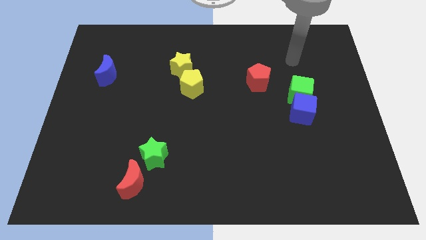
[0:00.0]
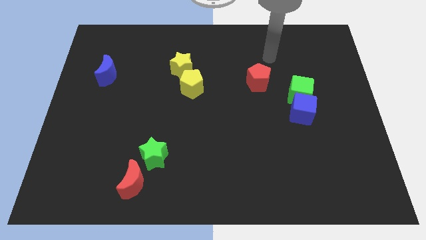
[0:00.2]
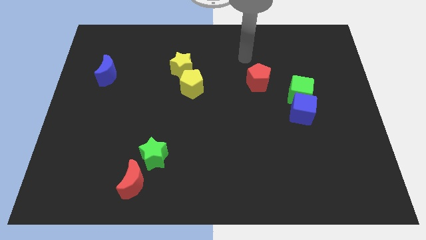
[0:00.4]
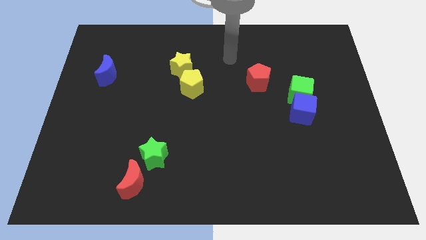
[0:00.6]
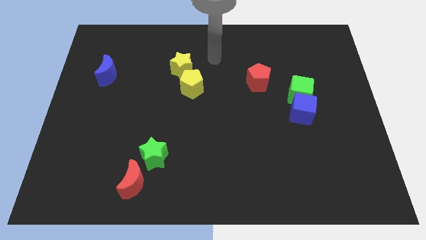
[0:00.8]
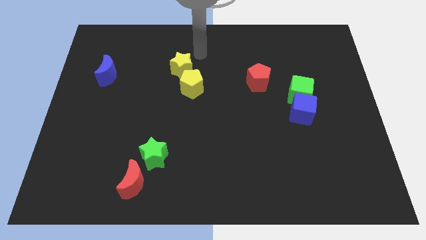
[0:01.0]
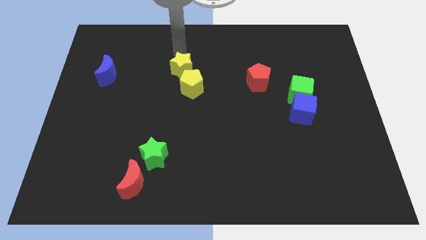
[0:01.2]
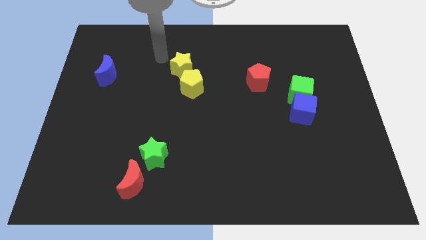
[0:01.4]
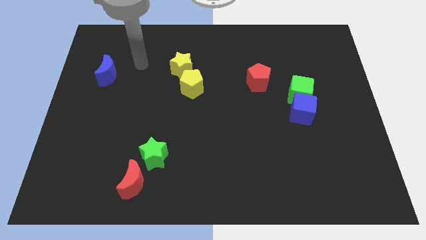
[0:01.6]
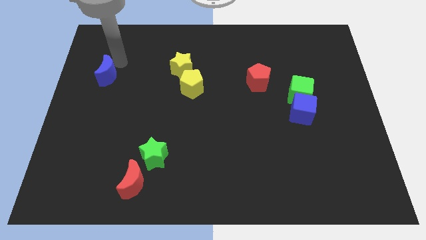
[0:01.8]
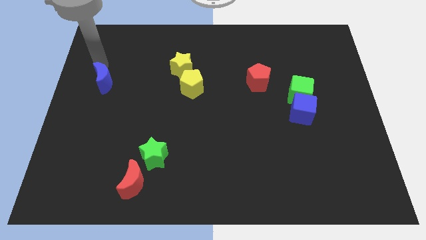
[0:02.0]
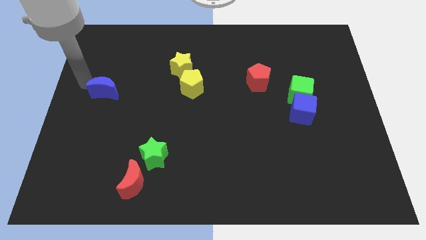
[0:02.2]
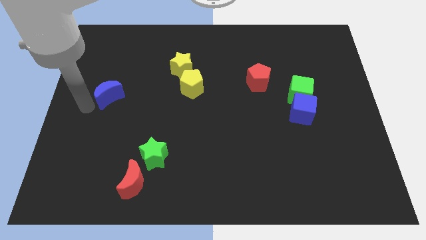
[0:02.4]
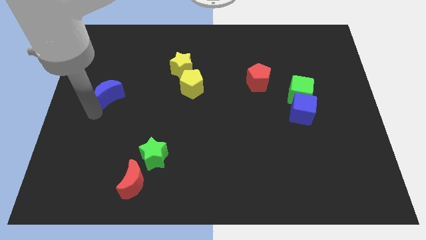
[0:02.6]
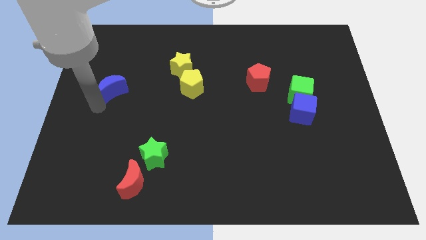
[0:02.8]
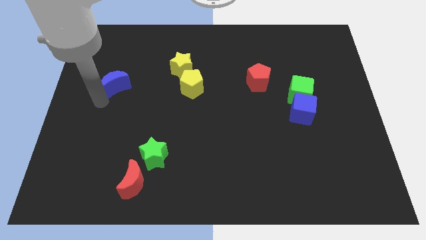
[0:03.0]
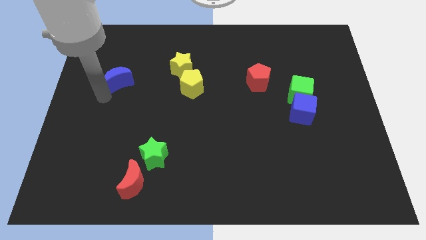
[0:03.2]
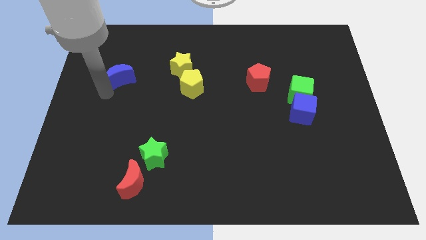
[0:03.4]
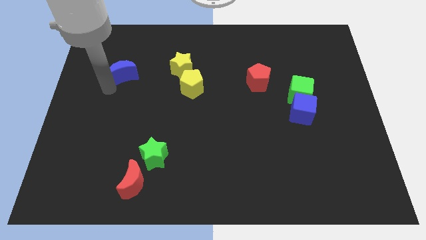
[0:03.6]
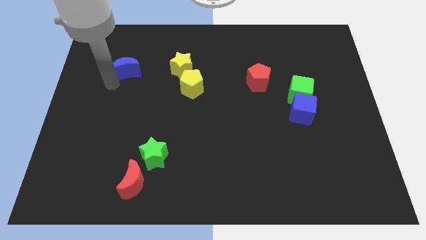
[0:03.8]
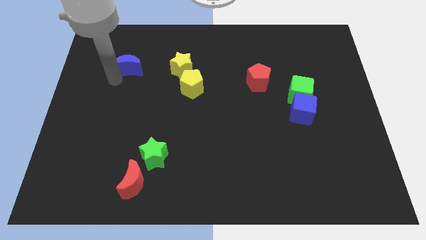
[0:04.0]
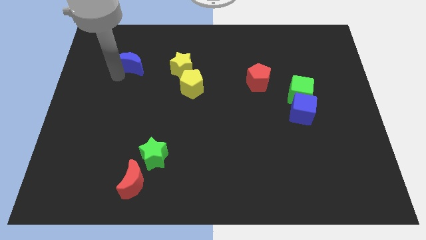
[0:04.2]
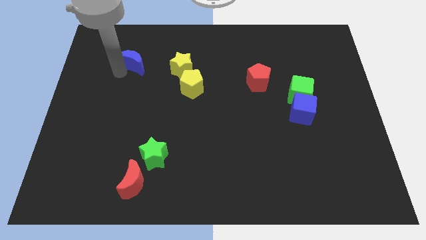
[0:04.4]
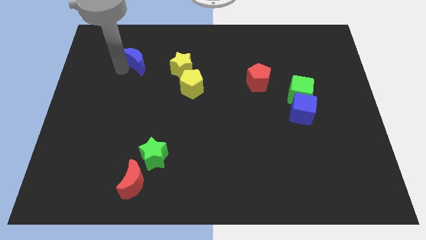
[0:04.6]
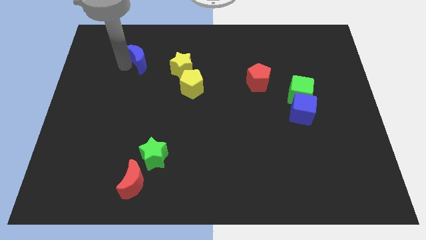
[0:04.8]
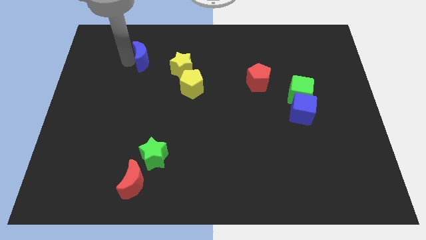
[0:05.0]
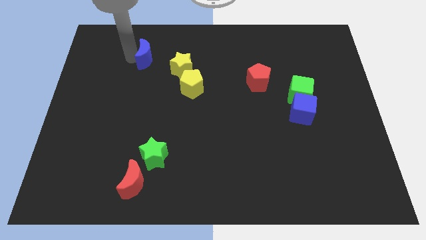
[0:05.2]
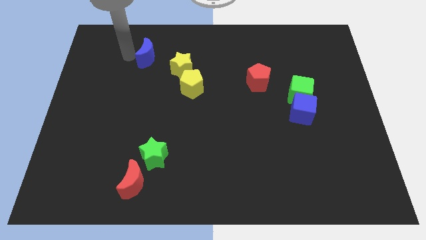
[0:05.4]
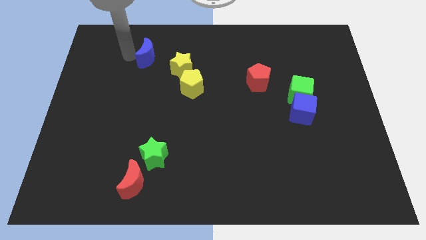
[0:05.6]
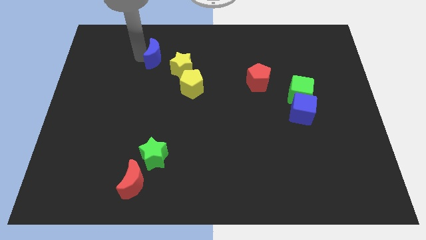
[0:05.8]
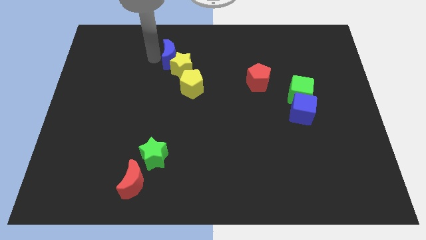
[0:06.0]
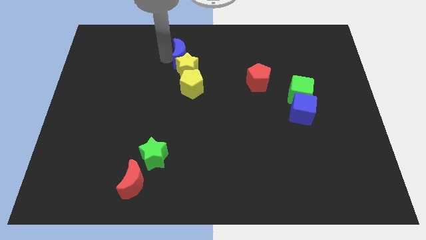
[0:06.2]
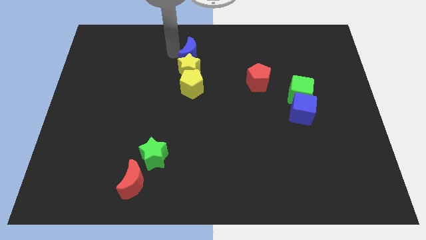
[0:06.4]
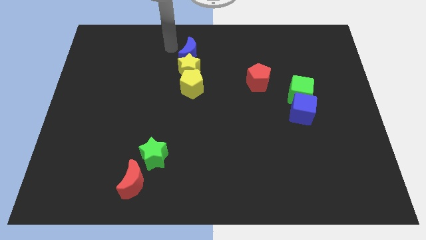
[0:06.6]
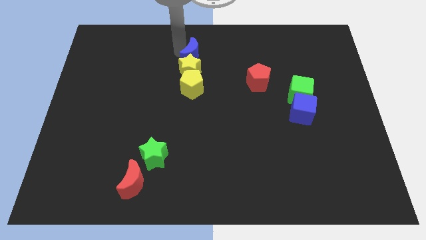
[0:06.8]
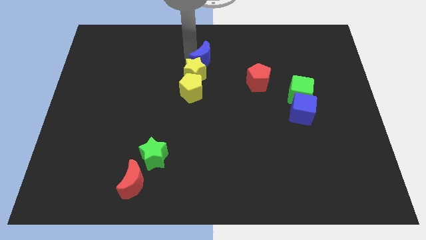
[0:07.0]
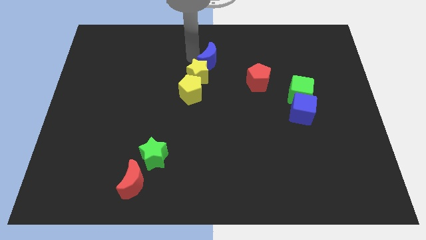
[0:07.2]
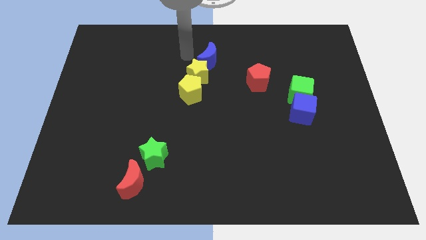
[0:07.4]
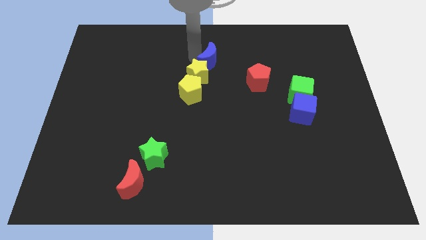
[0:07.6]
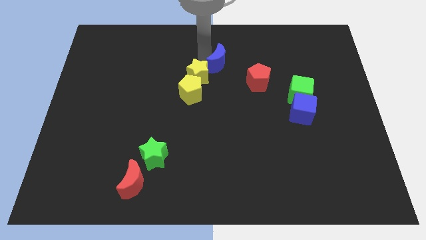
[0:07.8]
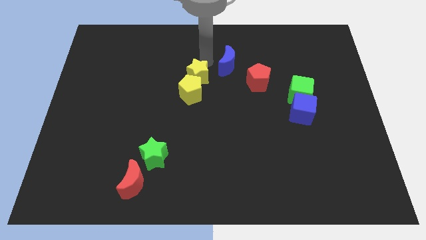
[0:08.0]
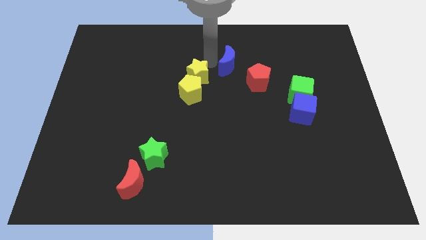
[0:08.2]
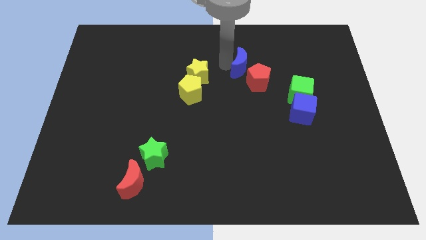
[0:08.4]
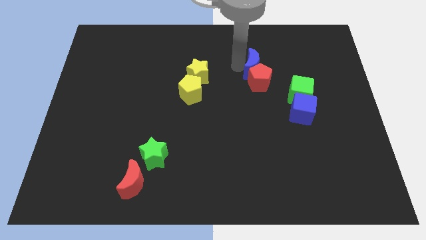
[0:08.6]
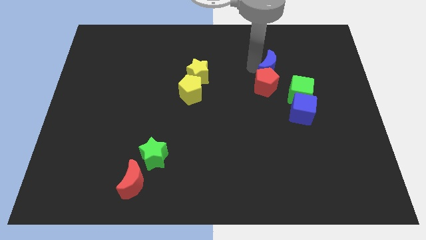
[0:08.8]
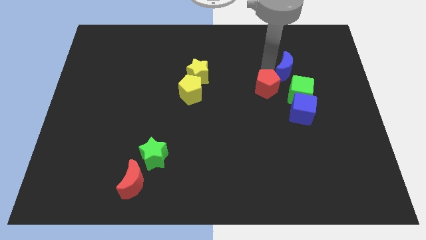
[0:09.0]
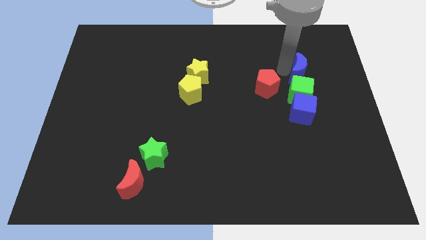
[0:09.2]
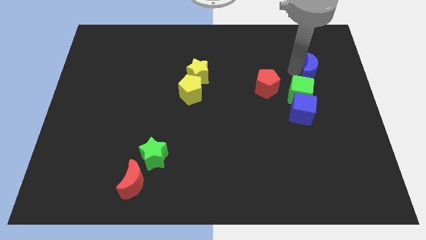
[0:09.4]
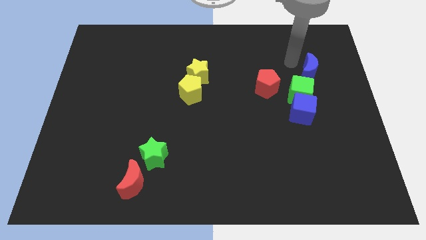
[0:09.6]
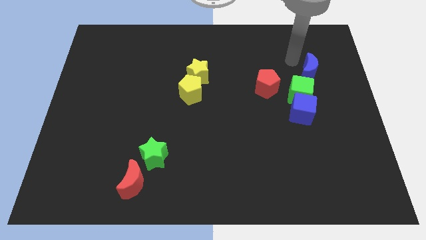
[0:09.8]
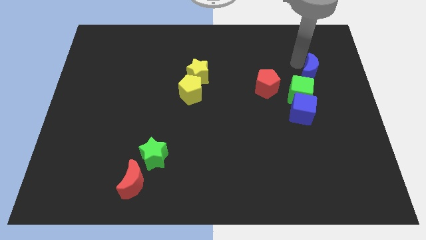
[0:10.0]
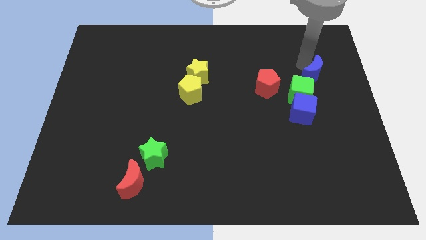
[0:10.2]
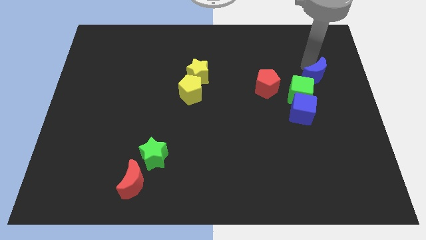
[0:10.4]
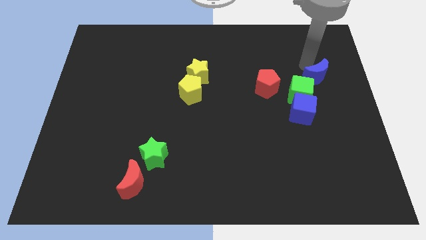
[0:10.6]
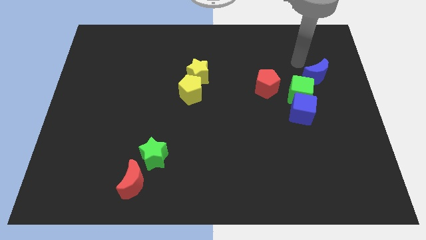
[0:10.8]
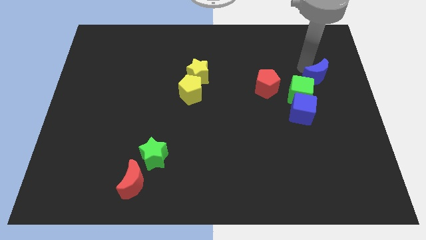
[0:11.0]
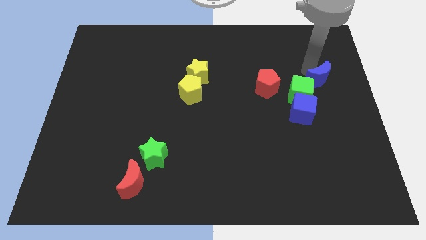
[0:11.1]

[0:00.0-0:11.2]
slide the blue moon to the right side of the board

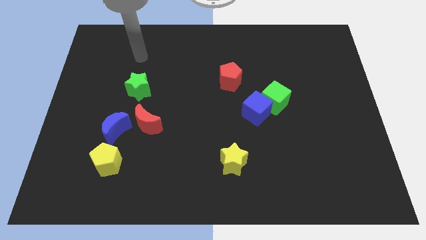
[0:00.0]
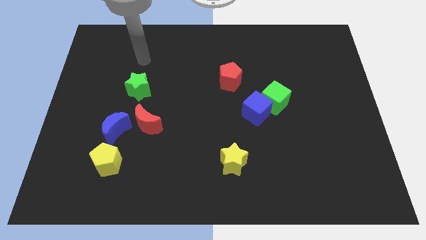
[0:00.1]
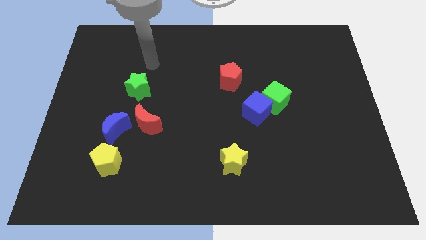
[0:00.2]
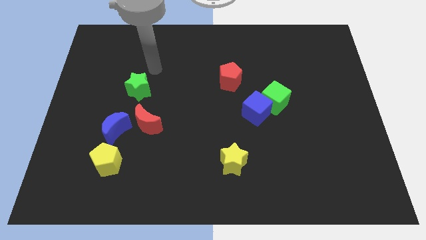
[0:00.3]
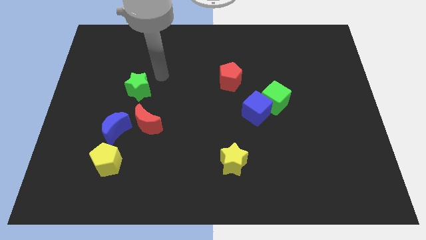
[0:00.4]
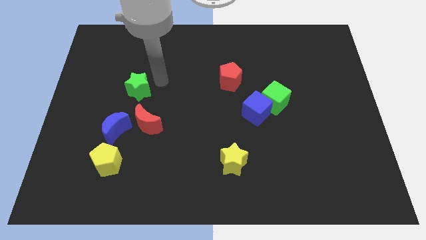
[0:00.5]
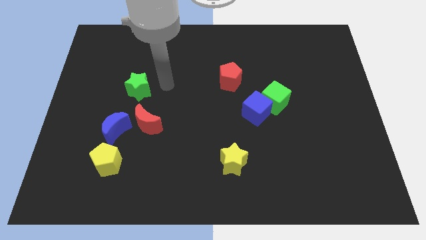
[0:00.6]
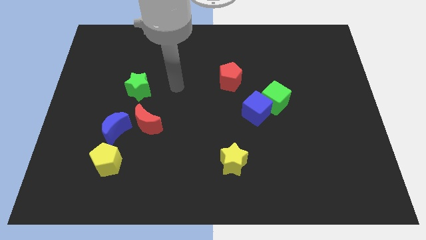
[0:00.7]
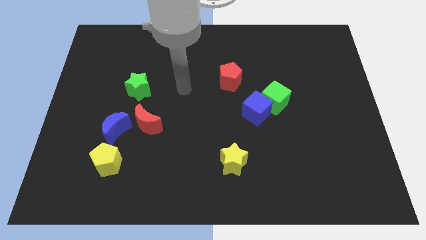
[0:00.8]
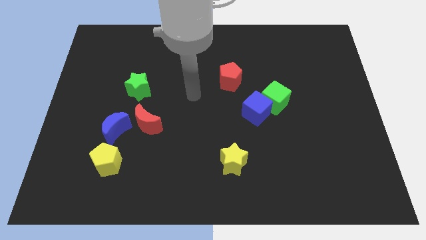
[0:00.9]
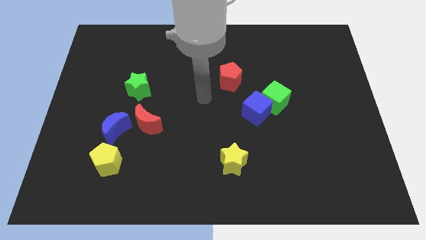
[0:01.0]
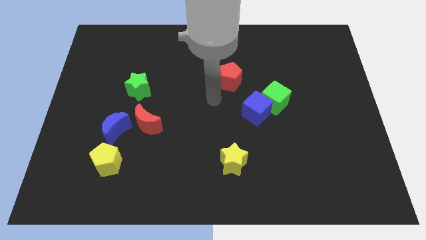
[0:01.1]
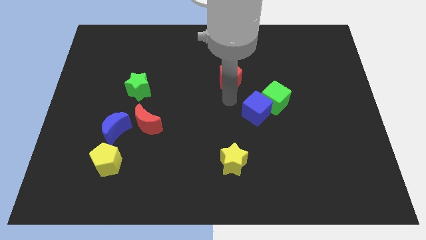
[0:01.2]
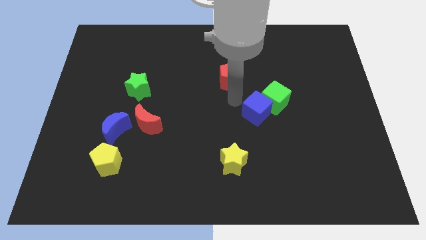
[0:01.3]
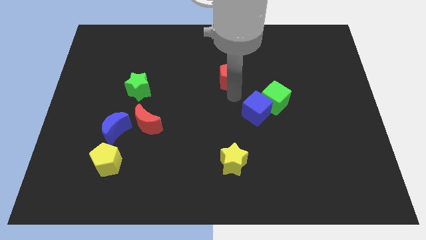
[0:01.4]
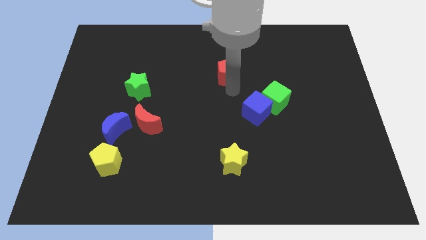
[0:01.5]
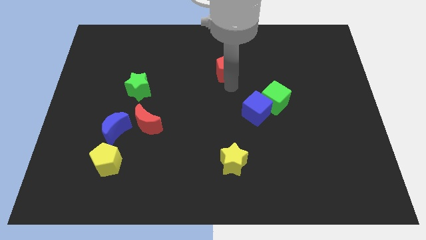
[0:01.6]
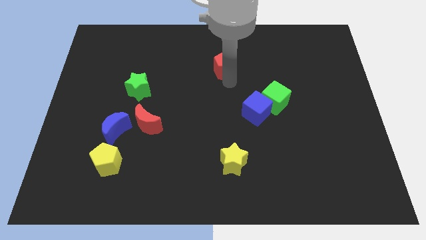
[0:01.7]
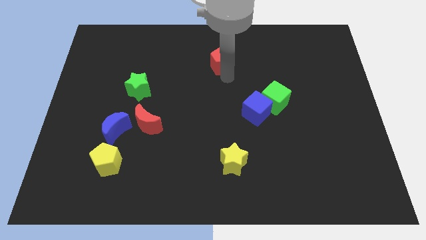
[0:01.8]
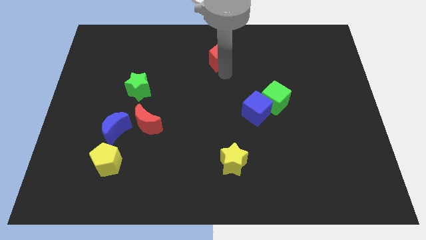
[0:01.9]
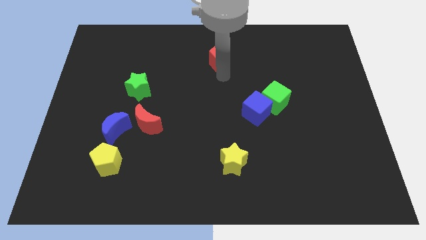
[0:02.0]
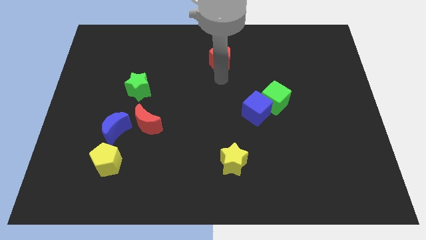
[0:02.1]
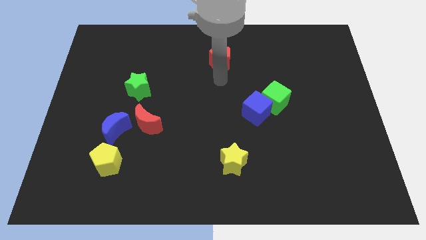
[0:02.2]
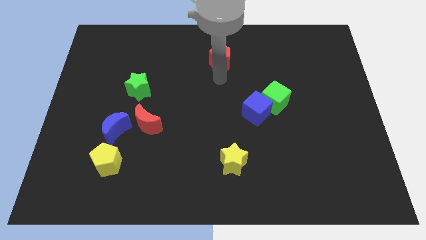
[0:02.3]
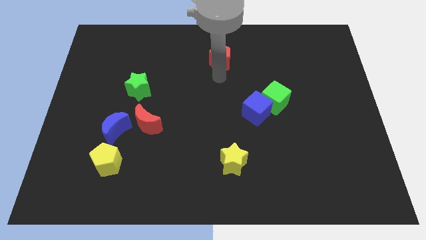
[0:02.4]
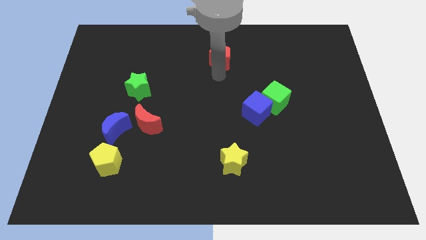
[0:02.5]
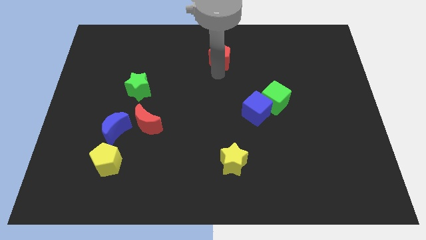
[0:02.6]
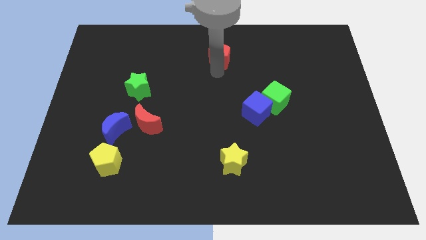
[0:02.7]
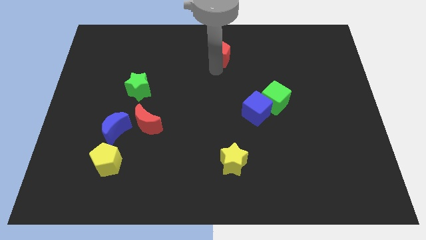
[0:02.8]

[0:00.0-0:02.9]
slide the red pentagon to the top
